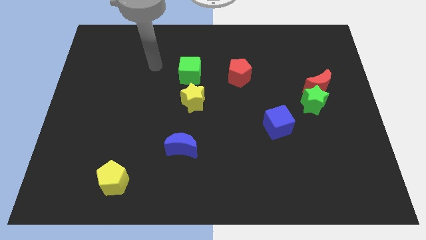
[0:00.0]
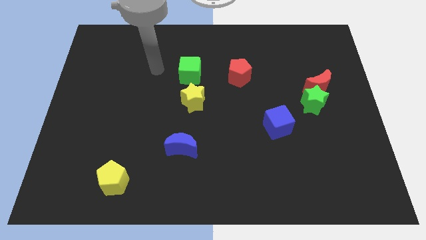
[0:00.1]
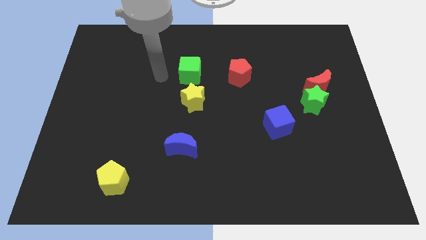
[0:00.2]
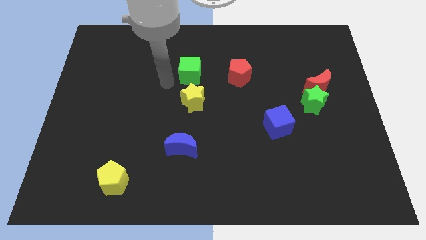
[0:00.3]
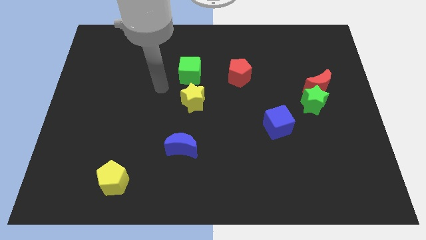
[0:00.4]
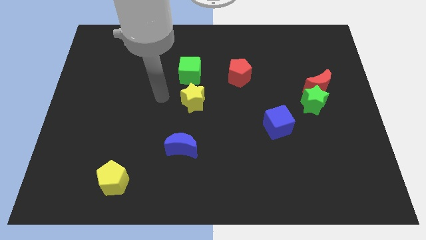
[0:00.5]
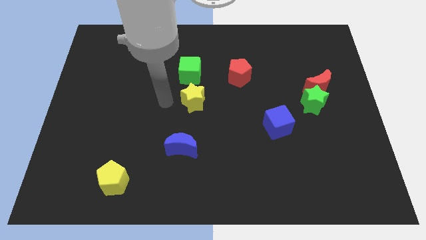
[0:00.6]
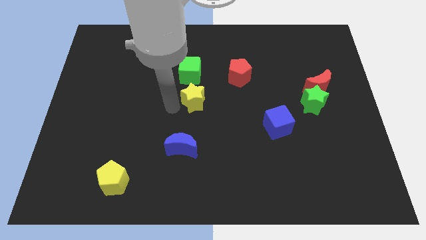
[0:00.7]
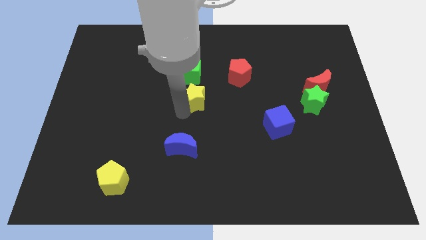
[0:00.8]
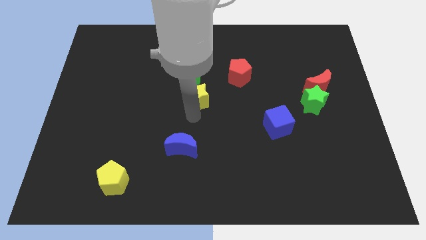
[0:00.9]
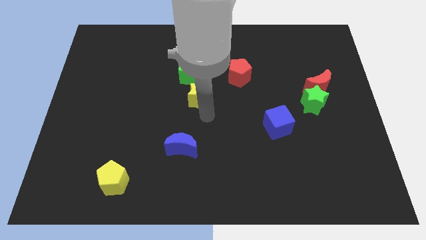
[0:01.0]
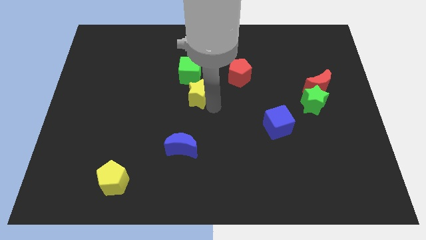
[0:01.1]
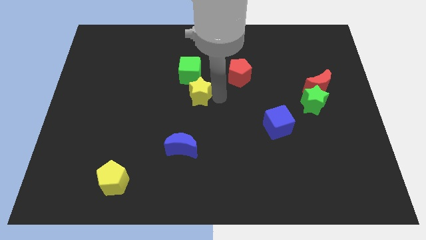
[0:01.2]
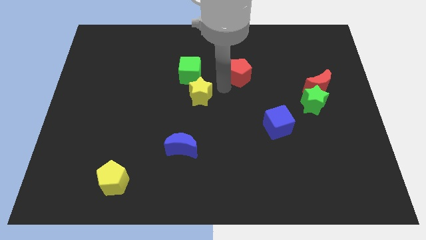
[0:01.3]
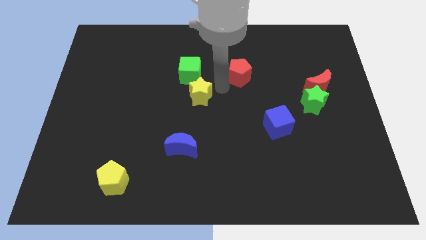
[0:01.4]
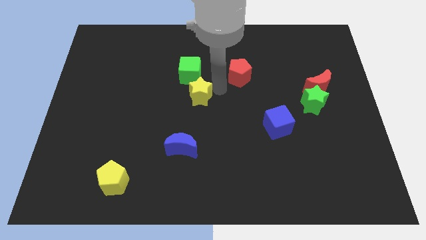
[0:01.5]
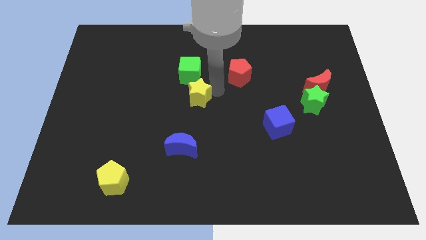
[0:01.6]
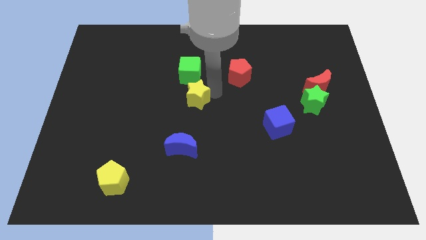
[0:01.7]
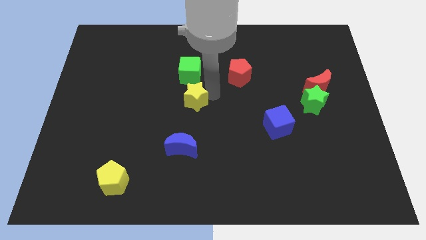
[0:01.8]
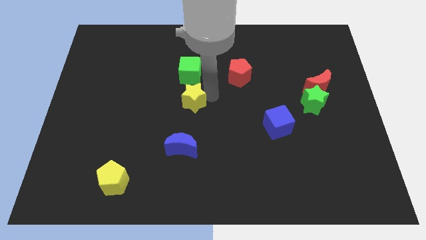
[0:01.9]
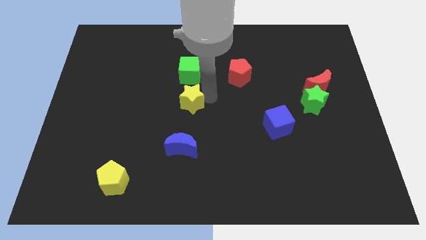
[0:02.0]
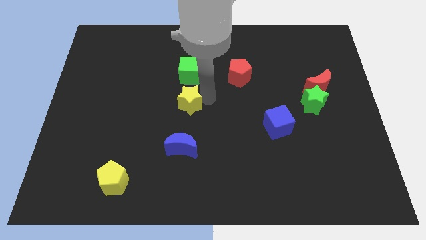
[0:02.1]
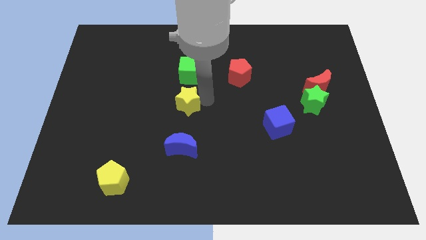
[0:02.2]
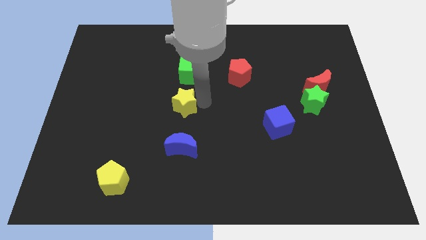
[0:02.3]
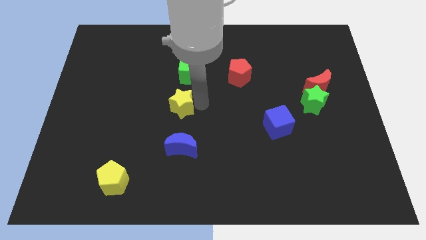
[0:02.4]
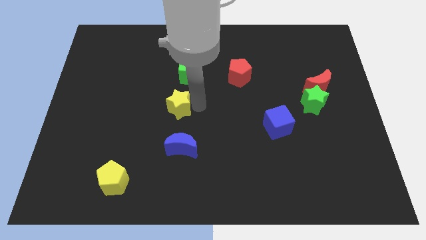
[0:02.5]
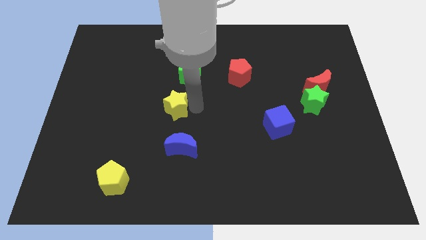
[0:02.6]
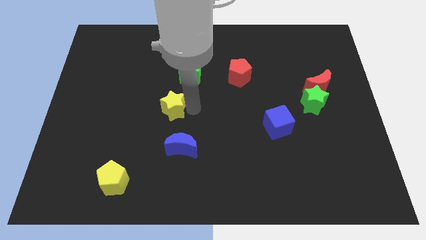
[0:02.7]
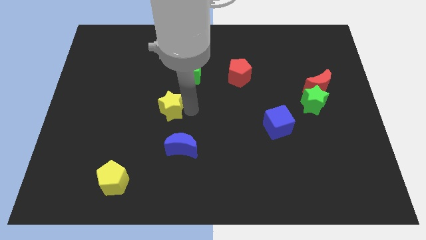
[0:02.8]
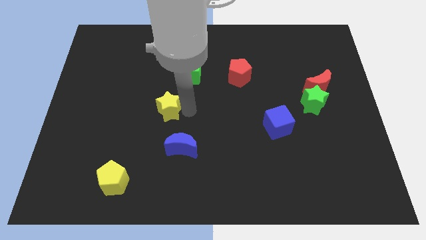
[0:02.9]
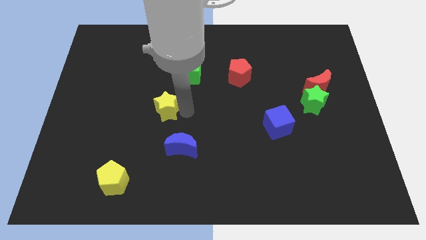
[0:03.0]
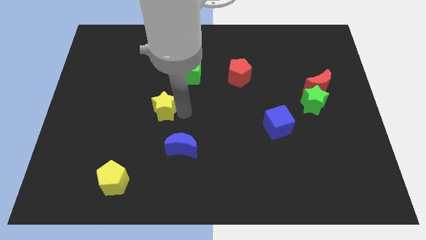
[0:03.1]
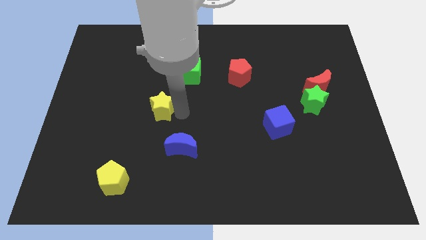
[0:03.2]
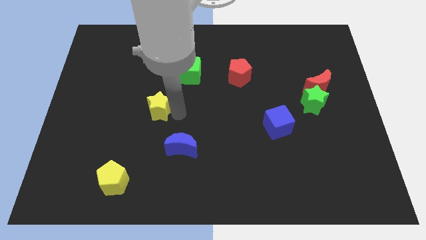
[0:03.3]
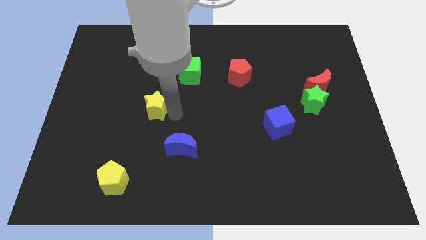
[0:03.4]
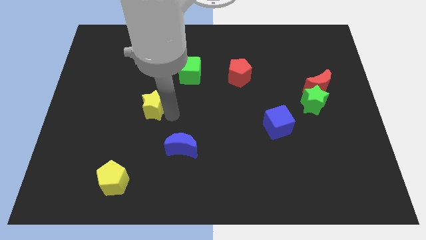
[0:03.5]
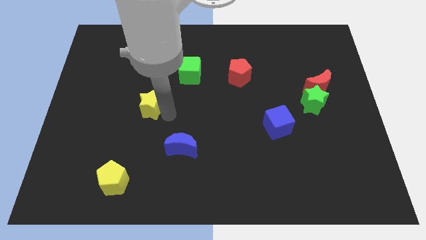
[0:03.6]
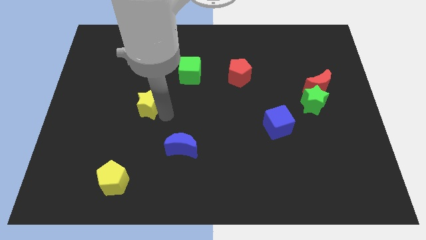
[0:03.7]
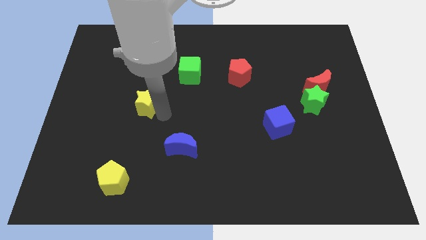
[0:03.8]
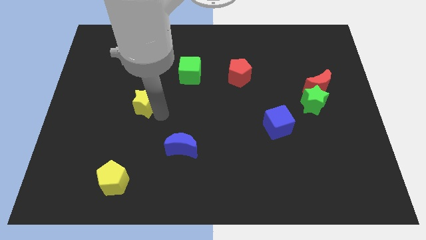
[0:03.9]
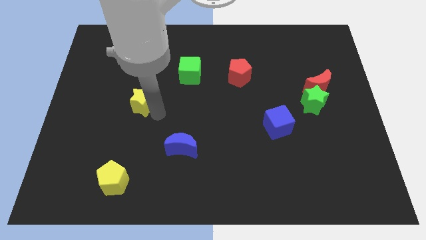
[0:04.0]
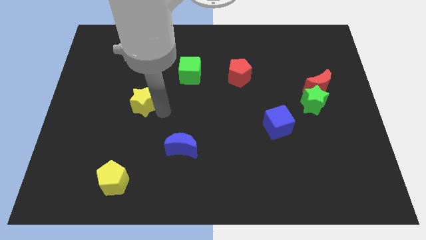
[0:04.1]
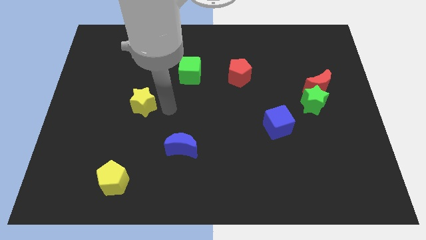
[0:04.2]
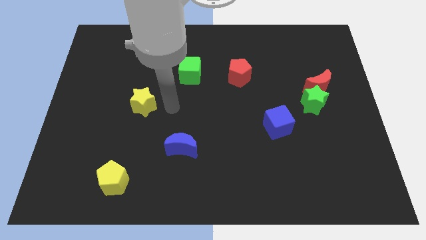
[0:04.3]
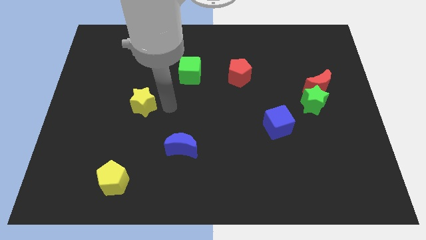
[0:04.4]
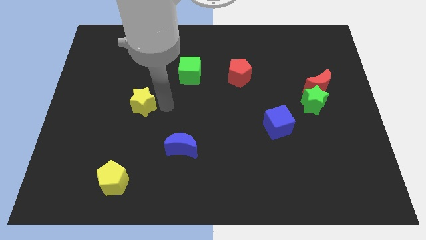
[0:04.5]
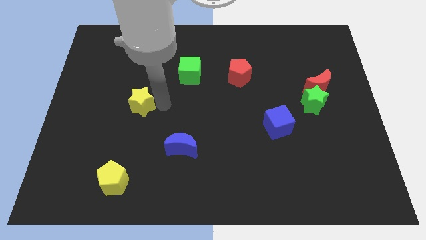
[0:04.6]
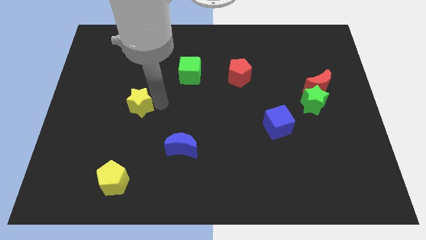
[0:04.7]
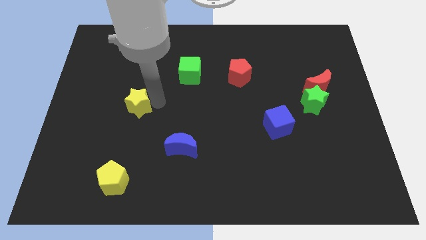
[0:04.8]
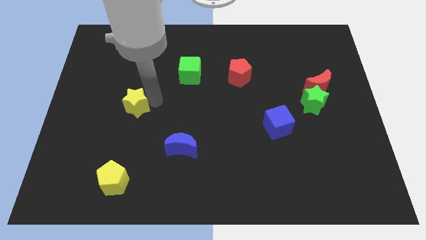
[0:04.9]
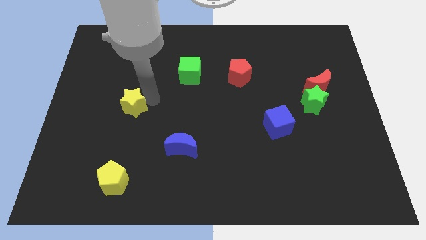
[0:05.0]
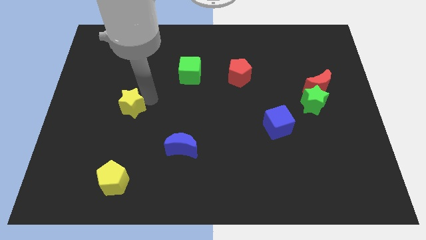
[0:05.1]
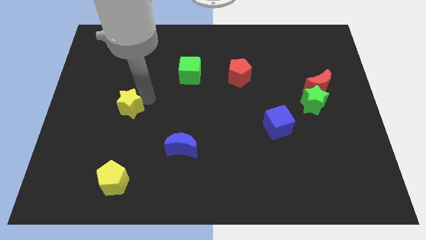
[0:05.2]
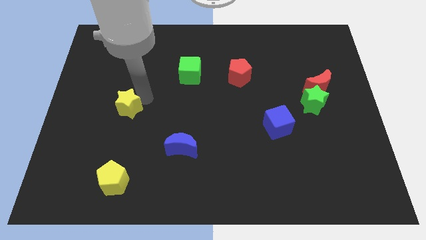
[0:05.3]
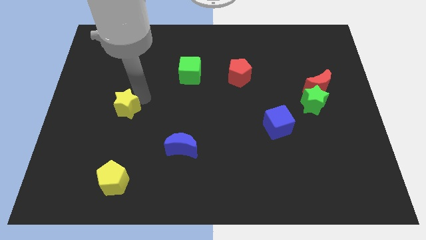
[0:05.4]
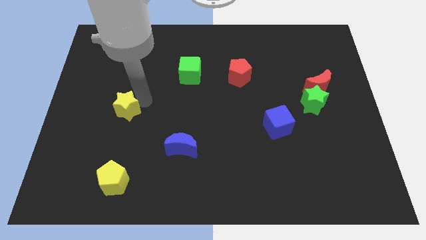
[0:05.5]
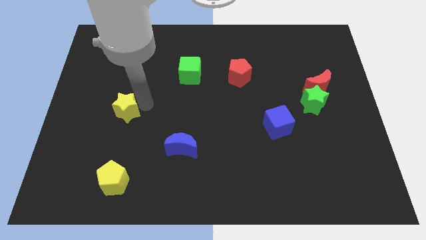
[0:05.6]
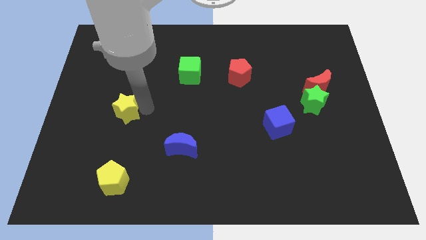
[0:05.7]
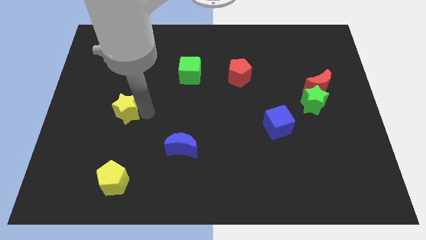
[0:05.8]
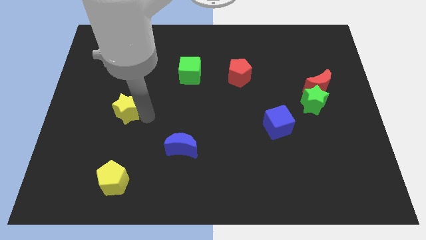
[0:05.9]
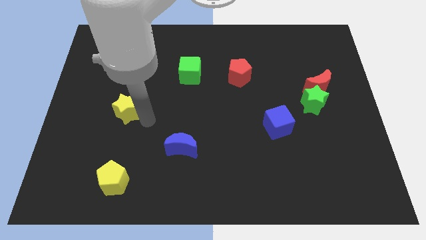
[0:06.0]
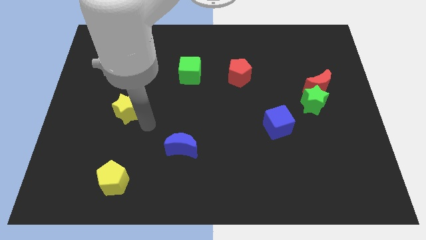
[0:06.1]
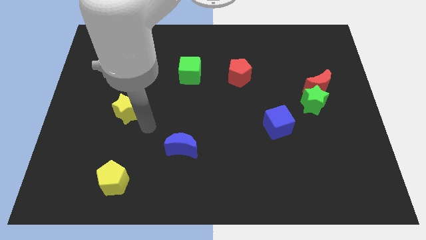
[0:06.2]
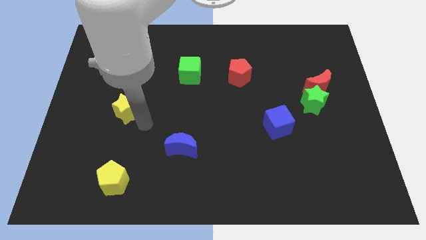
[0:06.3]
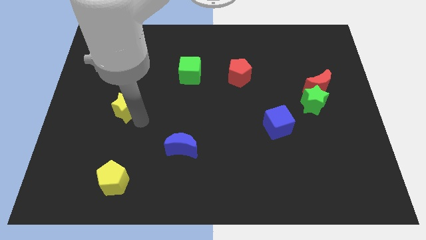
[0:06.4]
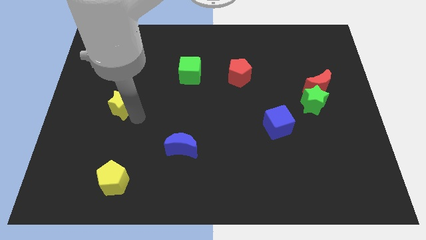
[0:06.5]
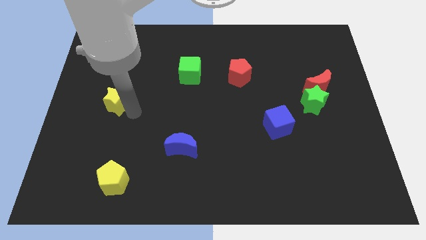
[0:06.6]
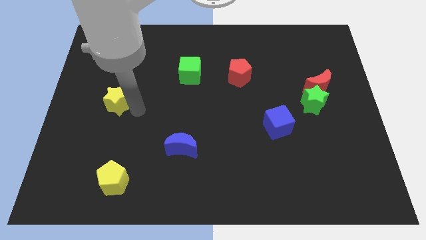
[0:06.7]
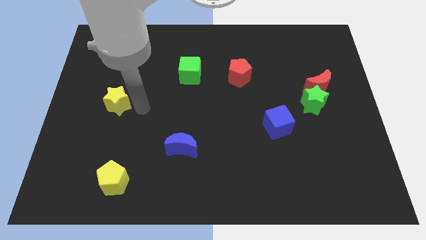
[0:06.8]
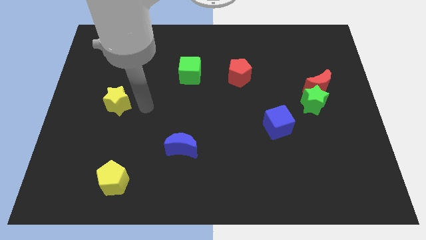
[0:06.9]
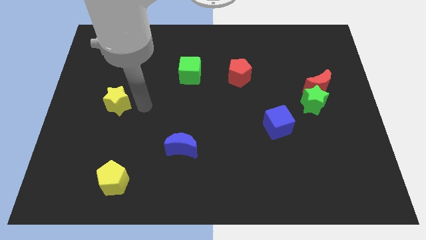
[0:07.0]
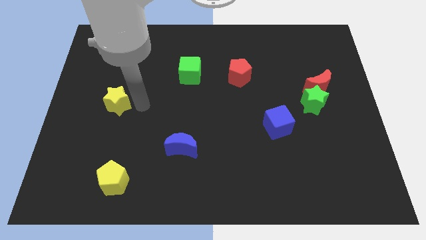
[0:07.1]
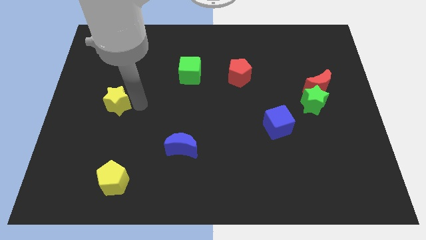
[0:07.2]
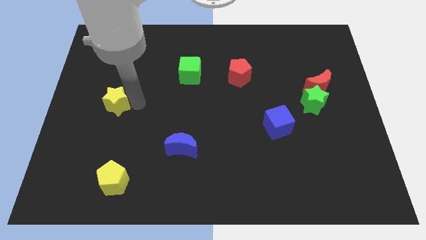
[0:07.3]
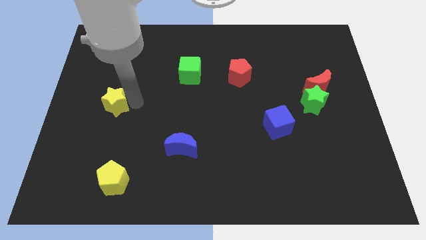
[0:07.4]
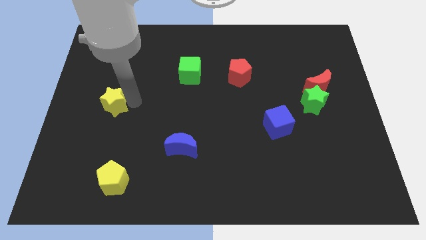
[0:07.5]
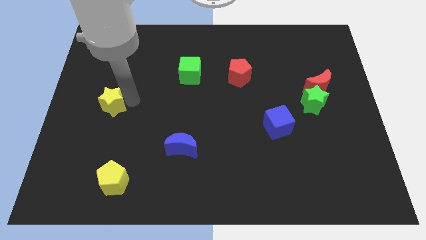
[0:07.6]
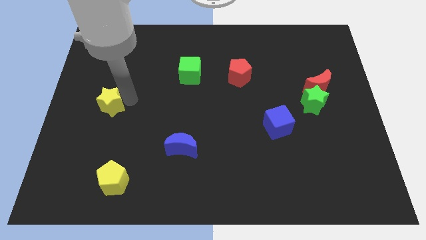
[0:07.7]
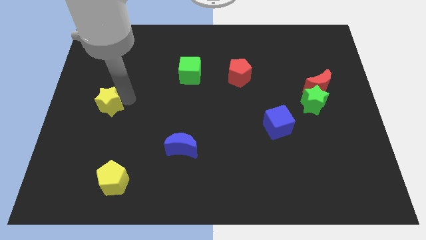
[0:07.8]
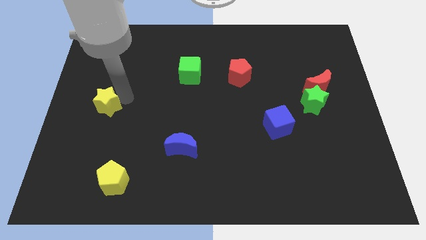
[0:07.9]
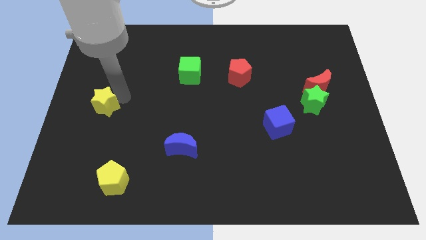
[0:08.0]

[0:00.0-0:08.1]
push the yellow star to the left side
